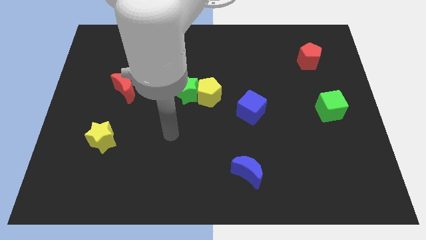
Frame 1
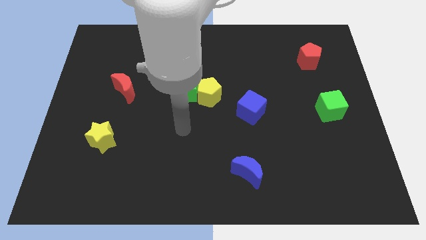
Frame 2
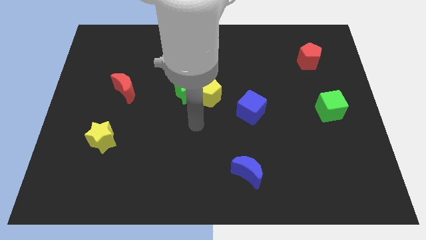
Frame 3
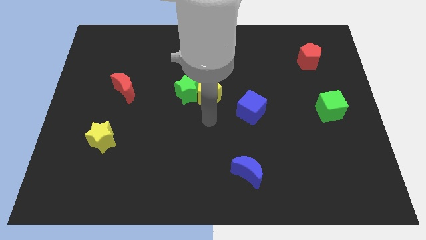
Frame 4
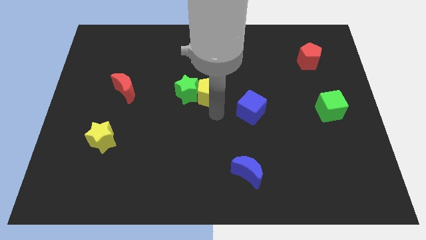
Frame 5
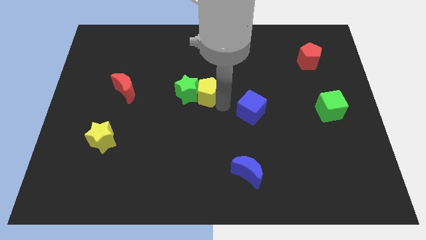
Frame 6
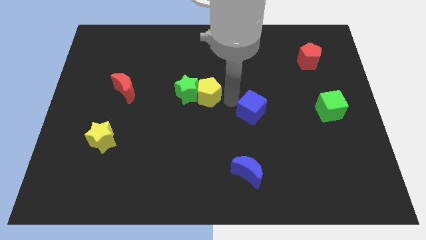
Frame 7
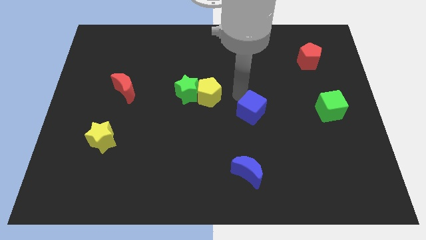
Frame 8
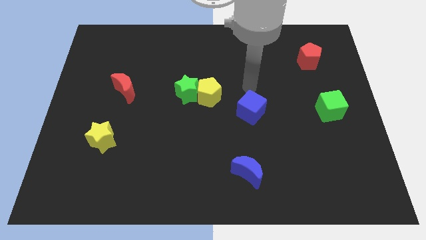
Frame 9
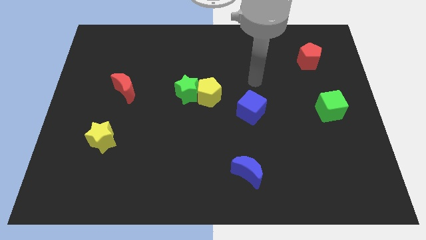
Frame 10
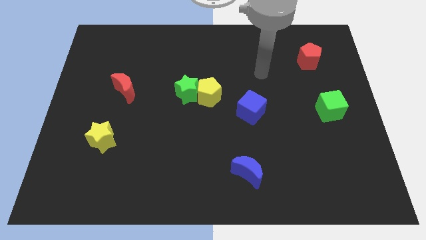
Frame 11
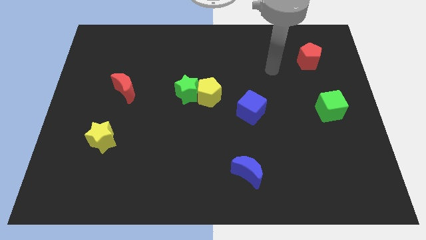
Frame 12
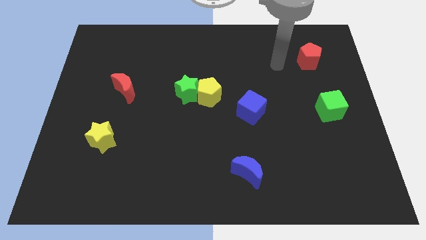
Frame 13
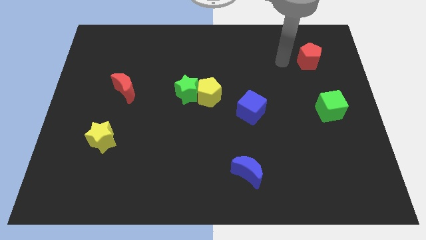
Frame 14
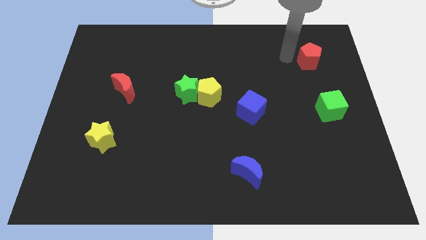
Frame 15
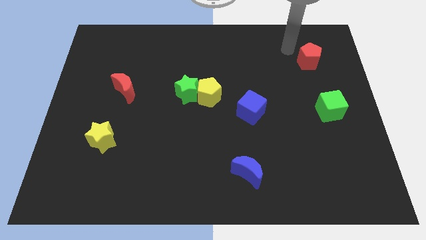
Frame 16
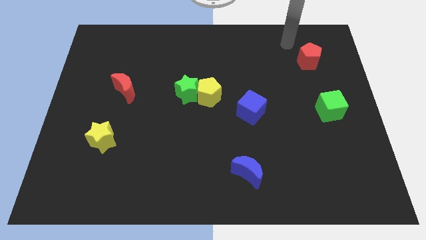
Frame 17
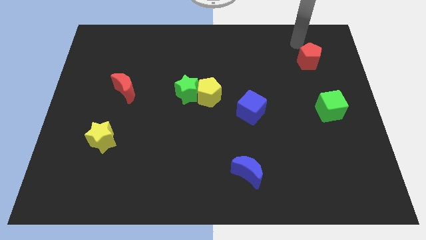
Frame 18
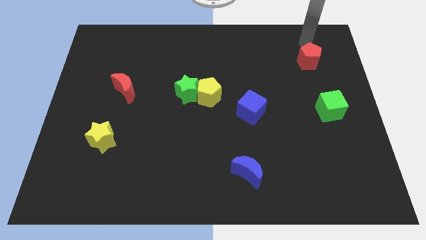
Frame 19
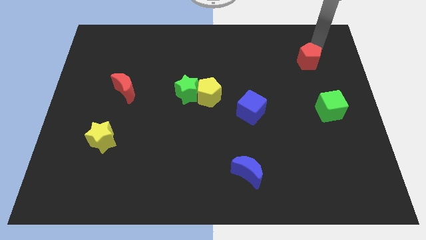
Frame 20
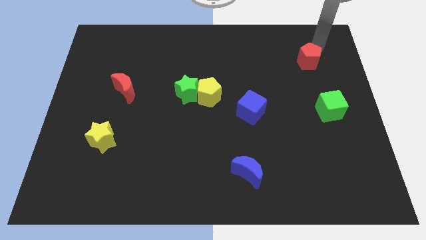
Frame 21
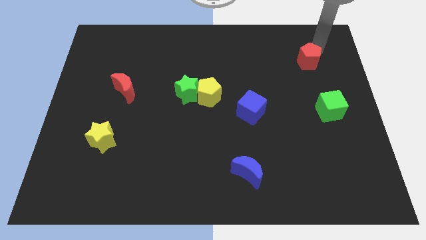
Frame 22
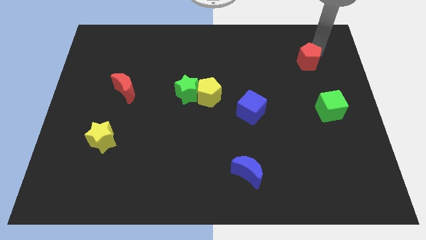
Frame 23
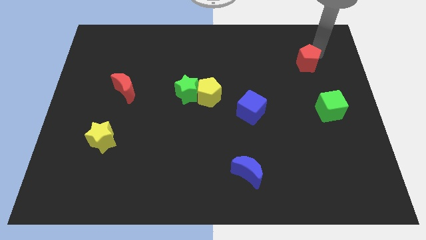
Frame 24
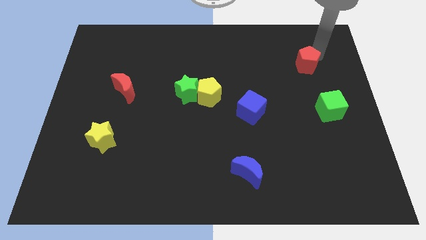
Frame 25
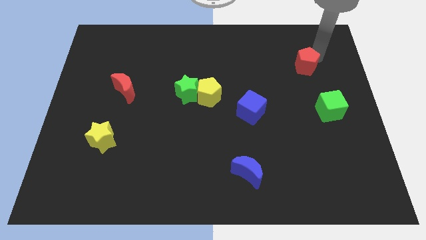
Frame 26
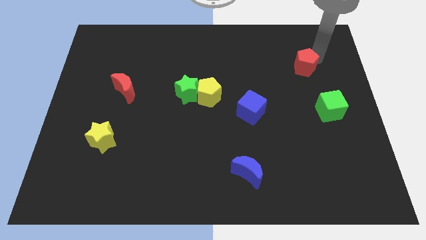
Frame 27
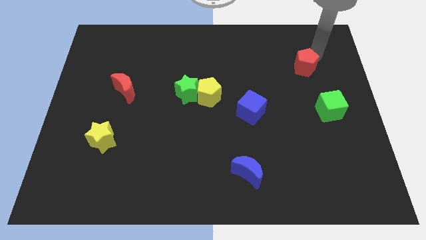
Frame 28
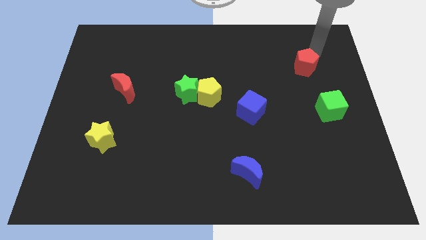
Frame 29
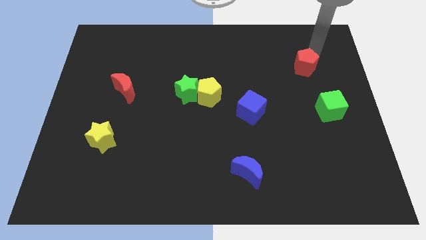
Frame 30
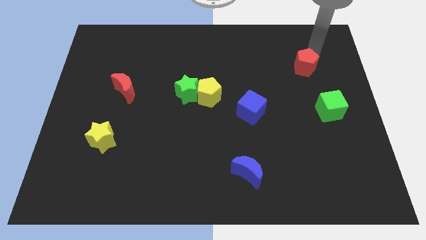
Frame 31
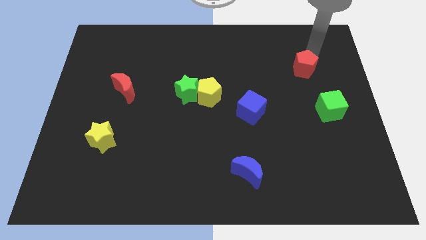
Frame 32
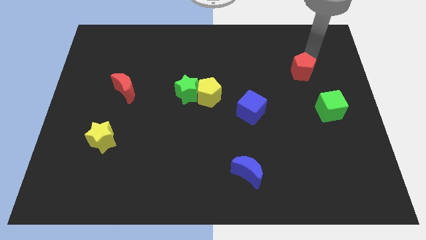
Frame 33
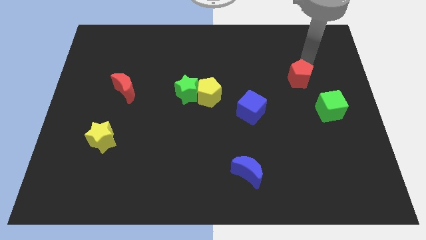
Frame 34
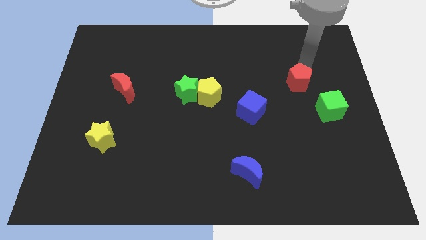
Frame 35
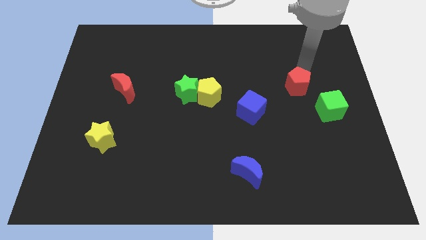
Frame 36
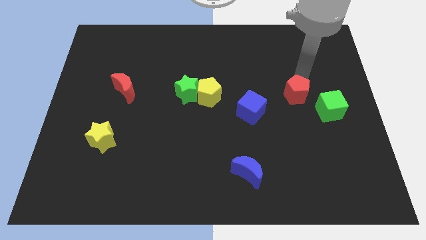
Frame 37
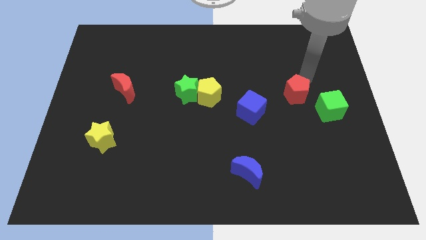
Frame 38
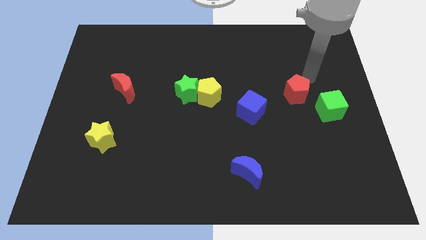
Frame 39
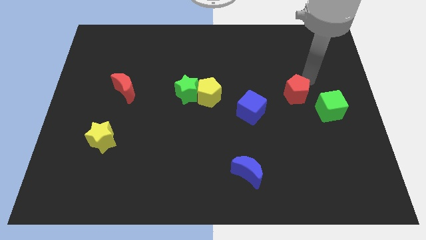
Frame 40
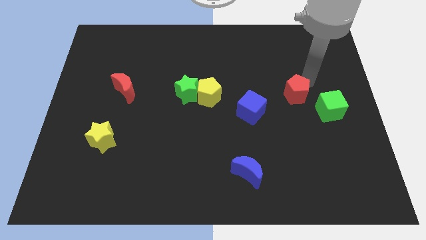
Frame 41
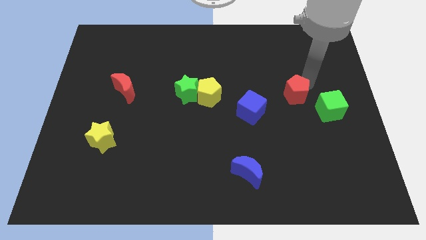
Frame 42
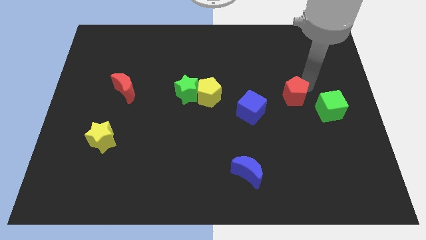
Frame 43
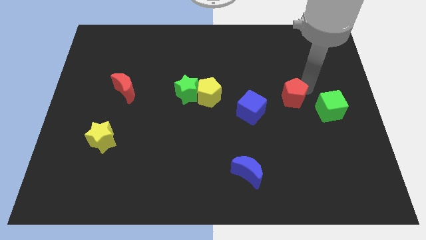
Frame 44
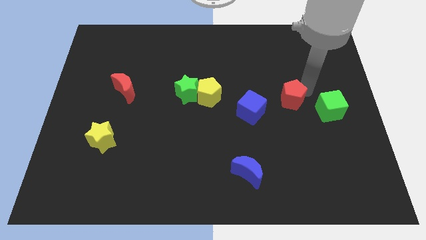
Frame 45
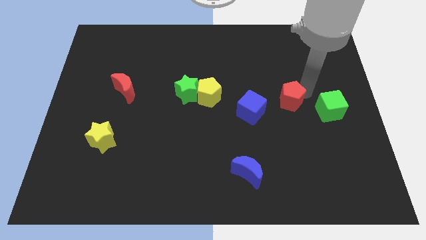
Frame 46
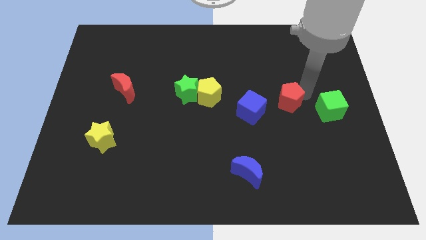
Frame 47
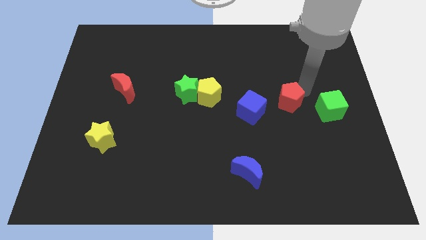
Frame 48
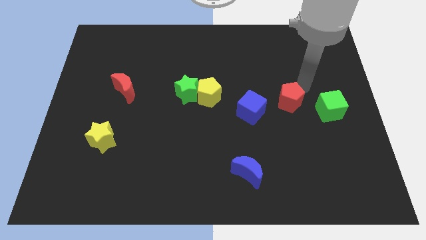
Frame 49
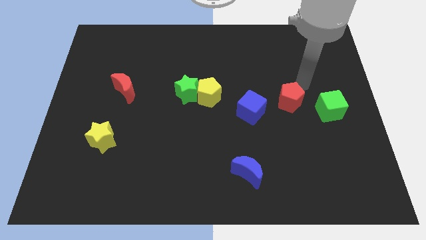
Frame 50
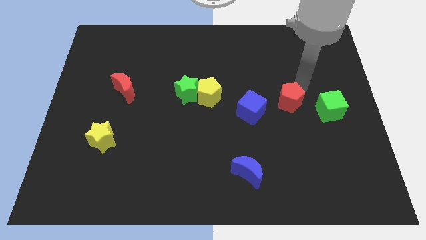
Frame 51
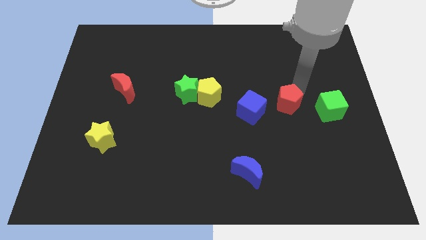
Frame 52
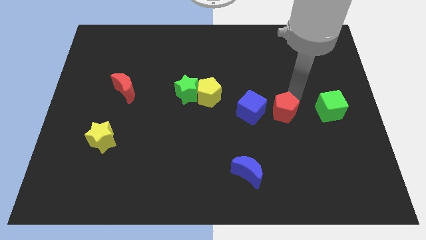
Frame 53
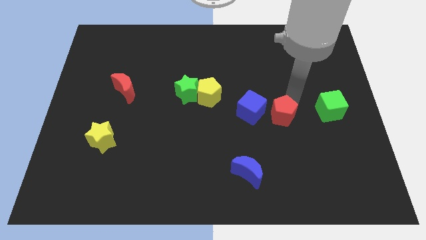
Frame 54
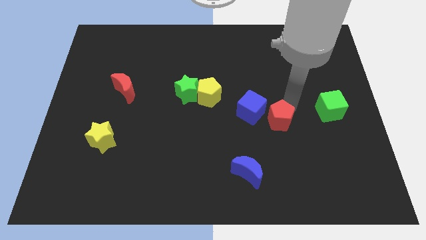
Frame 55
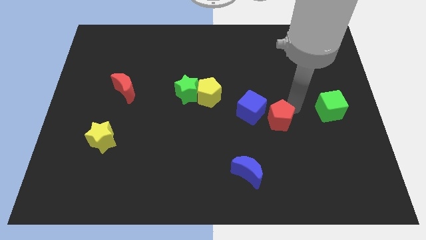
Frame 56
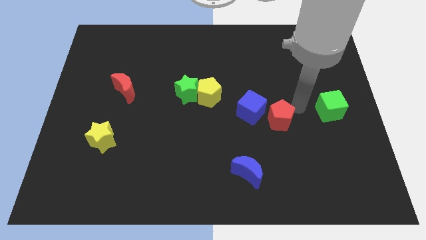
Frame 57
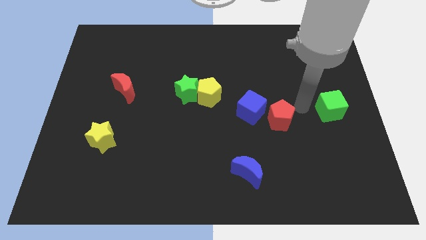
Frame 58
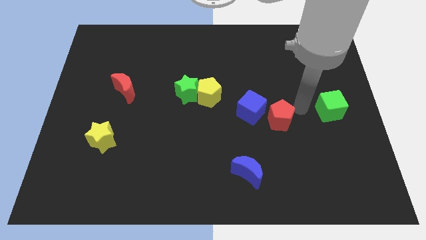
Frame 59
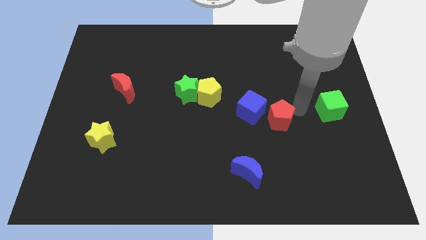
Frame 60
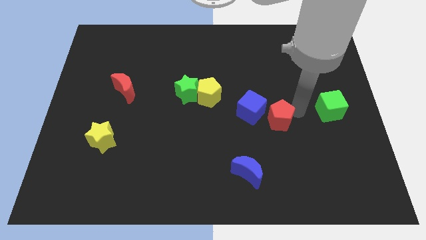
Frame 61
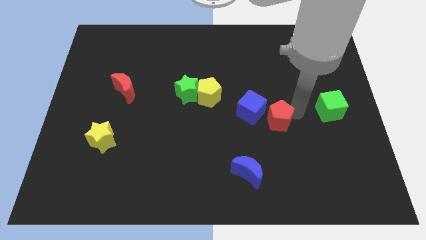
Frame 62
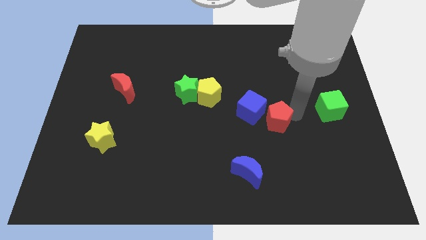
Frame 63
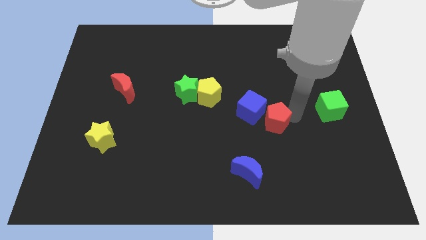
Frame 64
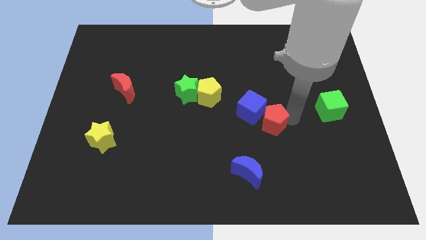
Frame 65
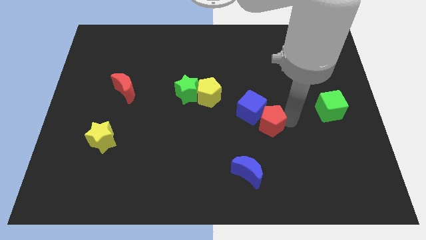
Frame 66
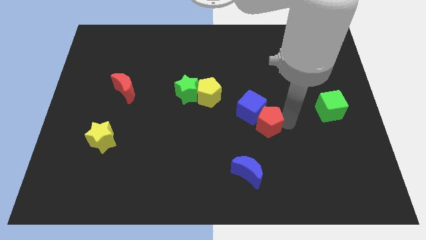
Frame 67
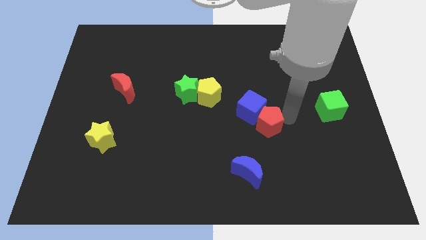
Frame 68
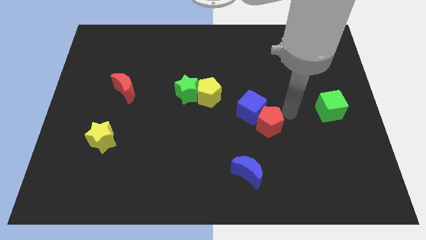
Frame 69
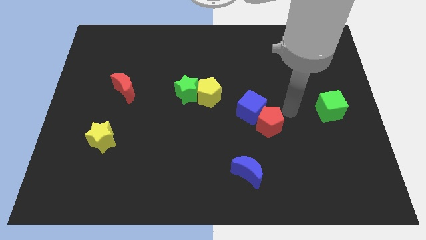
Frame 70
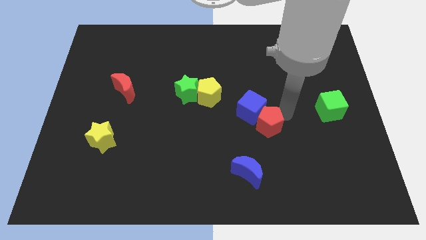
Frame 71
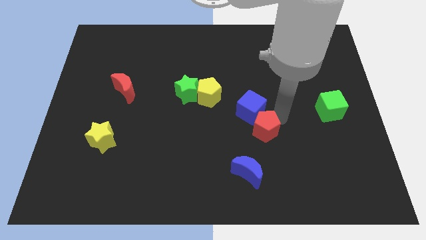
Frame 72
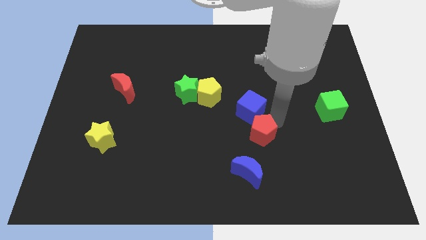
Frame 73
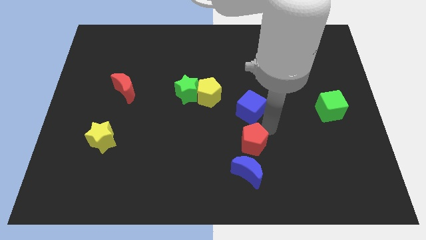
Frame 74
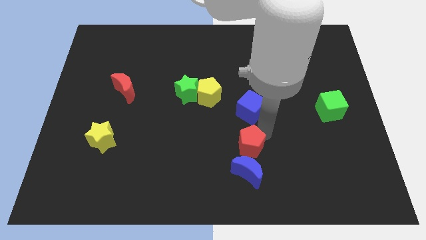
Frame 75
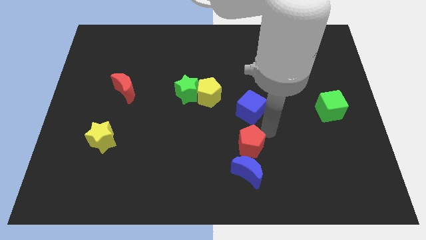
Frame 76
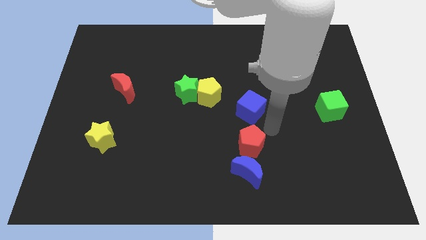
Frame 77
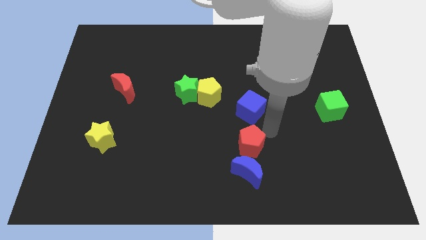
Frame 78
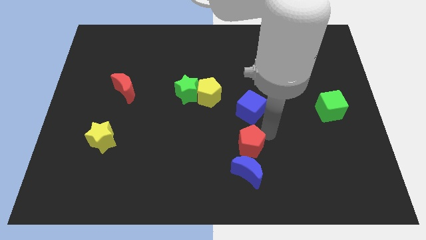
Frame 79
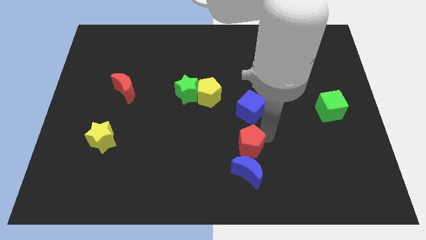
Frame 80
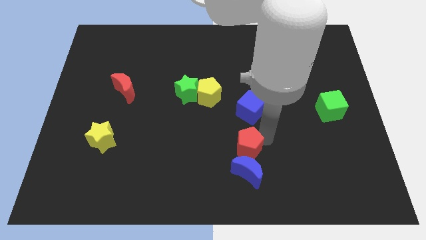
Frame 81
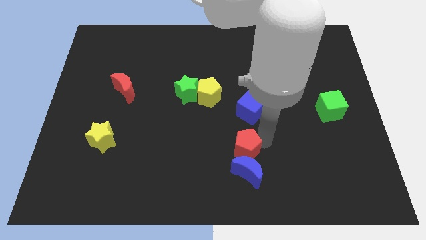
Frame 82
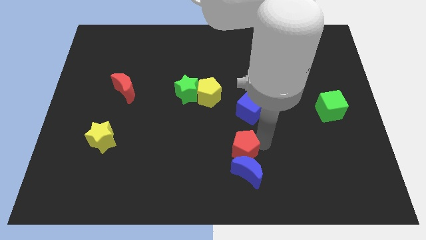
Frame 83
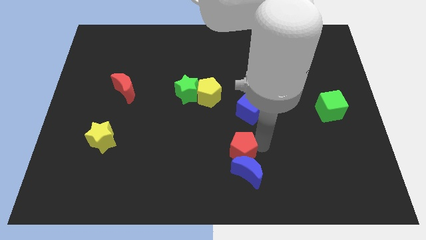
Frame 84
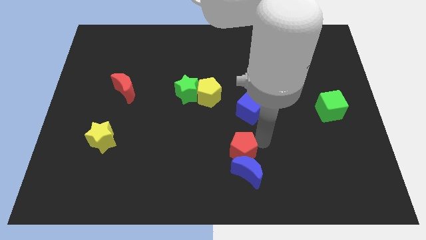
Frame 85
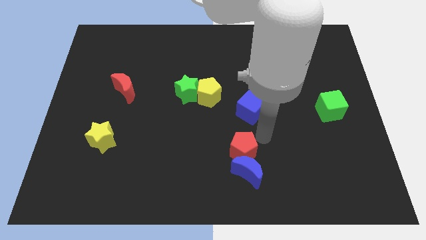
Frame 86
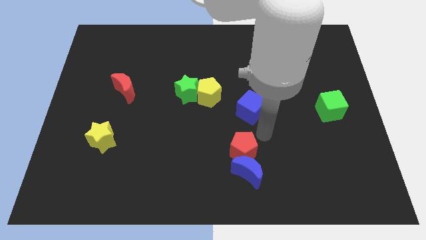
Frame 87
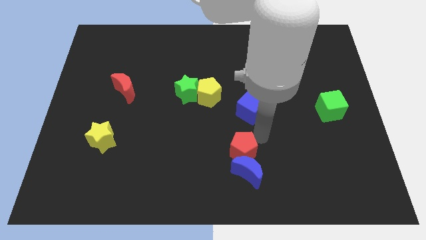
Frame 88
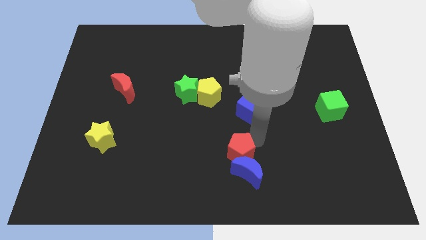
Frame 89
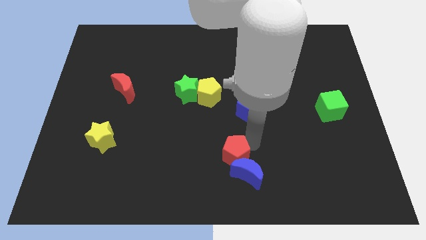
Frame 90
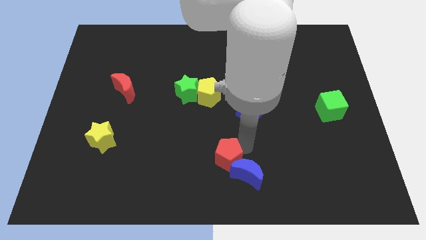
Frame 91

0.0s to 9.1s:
push the red pentagon to the bottom
